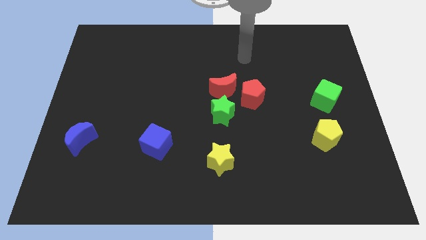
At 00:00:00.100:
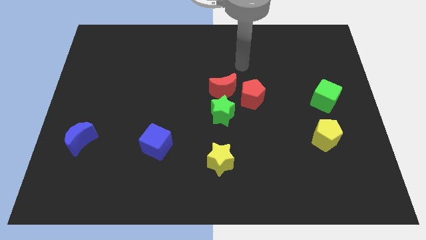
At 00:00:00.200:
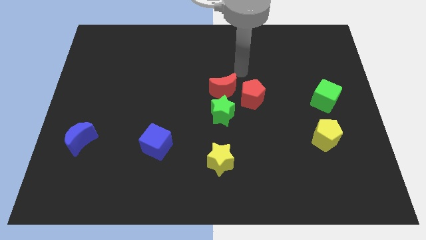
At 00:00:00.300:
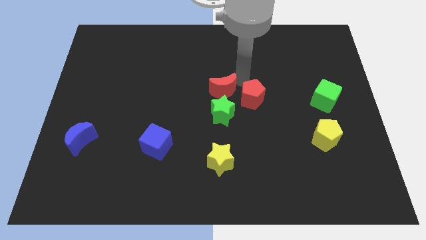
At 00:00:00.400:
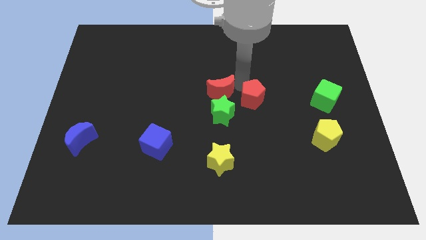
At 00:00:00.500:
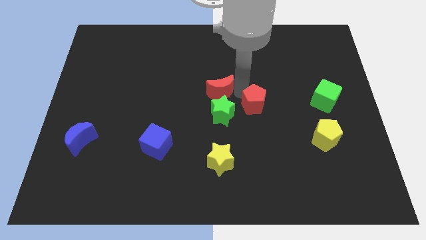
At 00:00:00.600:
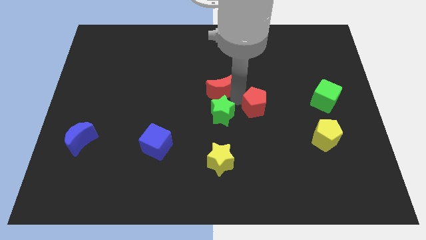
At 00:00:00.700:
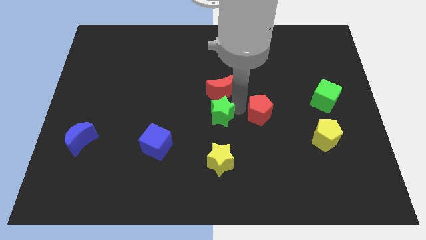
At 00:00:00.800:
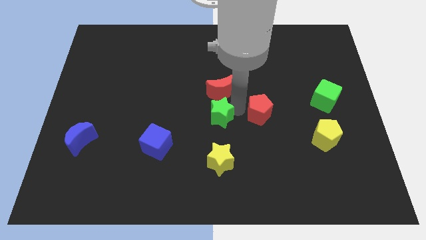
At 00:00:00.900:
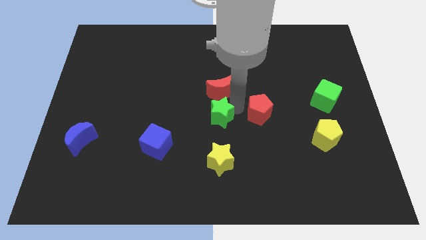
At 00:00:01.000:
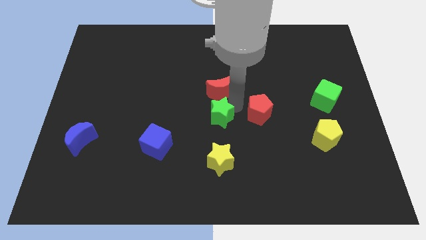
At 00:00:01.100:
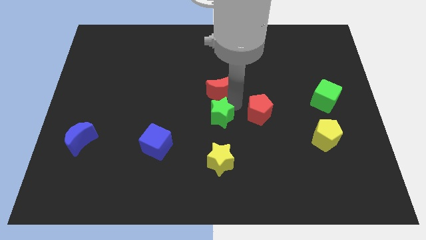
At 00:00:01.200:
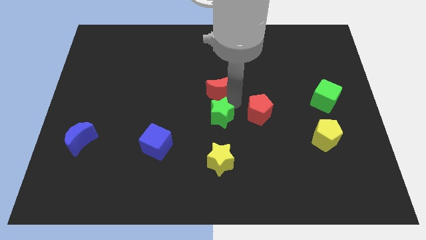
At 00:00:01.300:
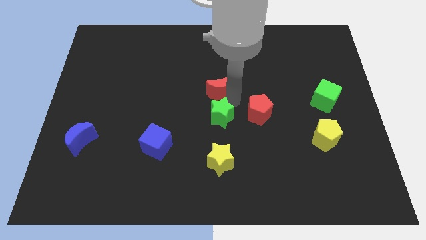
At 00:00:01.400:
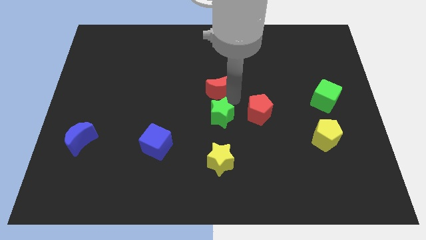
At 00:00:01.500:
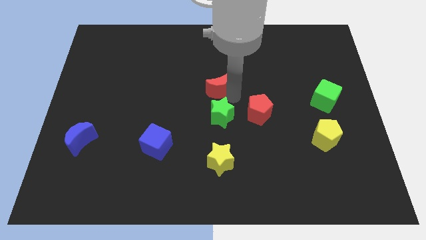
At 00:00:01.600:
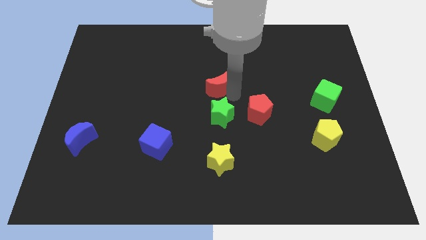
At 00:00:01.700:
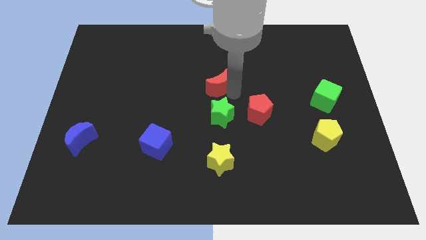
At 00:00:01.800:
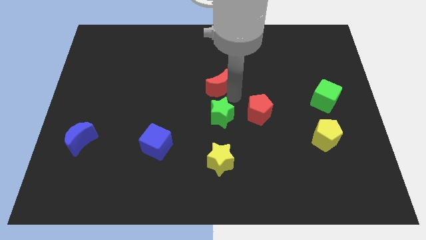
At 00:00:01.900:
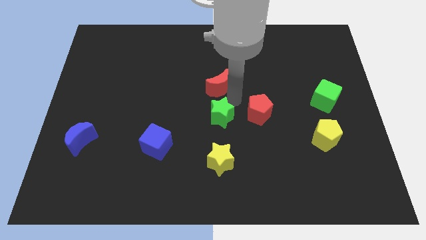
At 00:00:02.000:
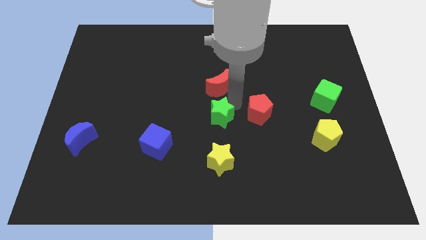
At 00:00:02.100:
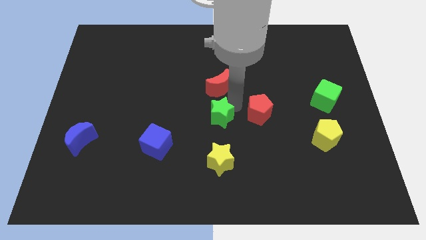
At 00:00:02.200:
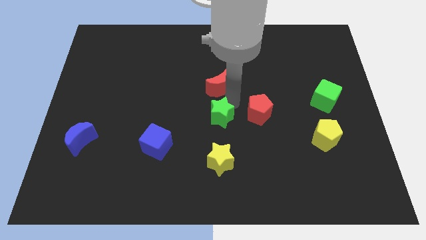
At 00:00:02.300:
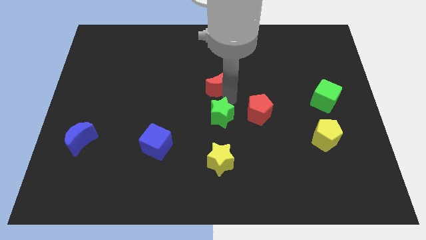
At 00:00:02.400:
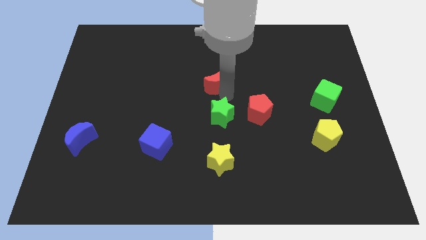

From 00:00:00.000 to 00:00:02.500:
pull the red moon apart from the red pentagon and green star

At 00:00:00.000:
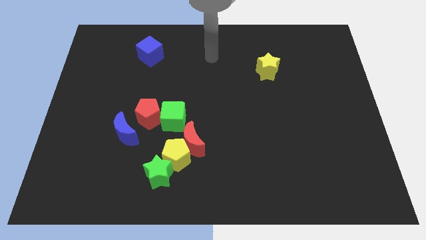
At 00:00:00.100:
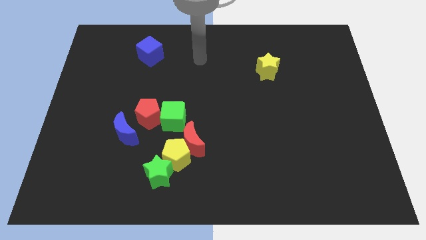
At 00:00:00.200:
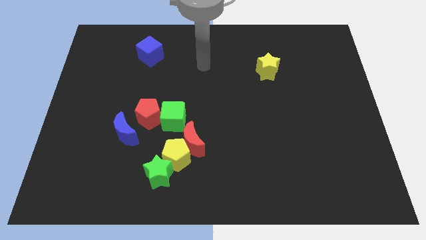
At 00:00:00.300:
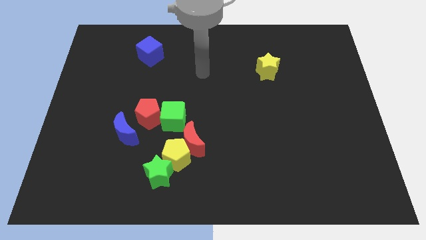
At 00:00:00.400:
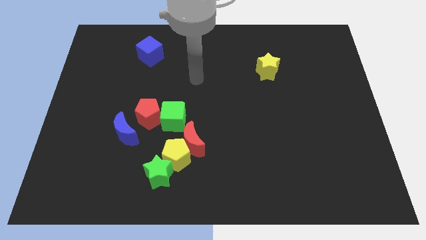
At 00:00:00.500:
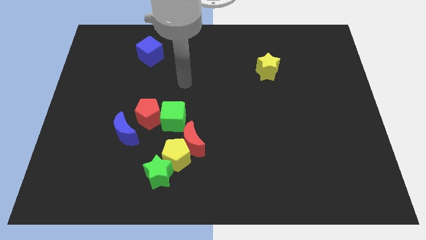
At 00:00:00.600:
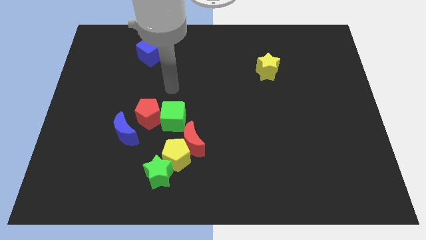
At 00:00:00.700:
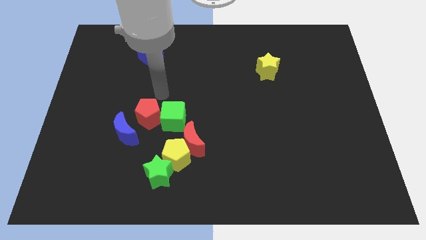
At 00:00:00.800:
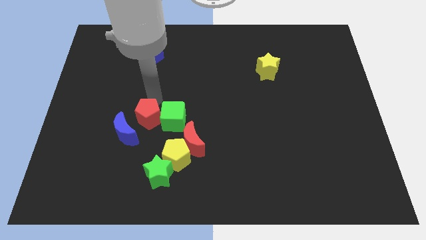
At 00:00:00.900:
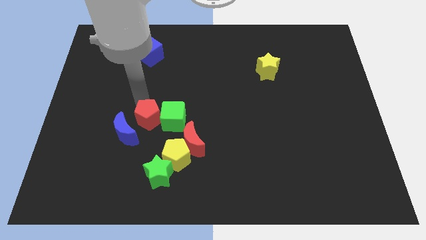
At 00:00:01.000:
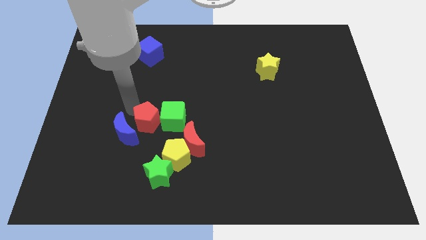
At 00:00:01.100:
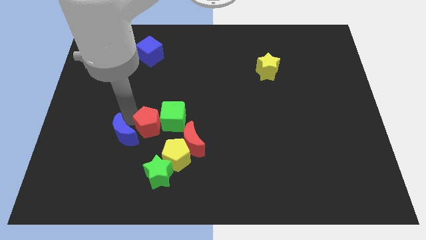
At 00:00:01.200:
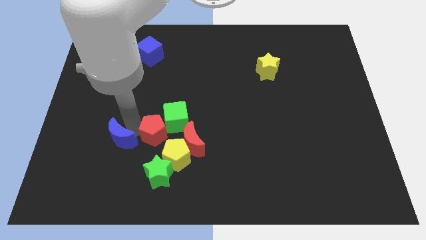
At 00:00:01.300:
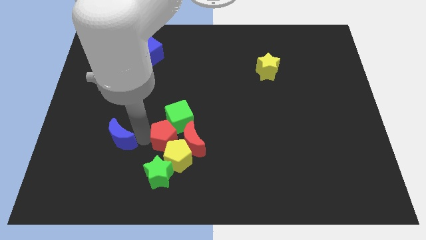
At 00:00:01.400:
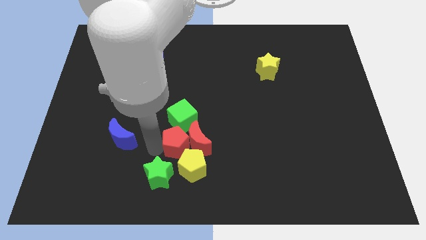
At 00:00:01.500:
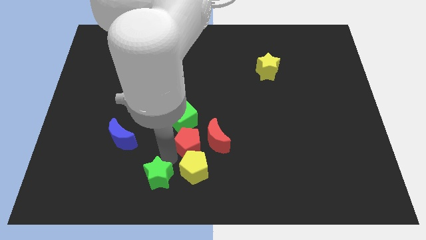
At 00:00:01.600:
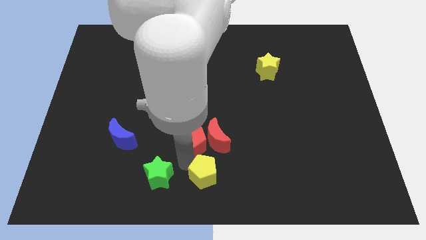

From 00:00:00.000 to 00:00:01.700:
pull the red pentagon apart from the green cube and blue moon

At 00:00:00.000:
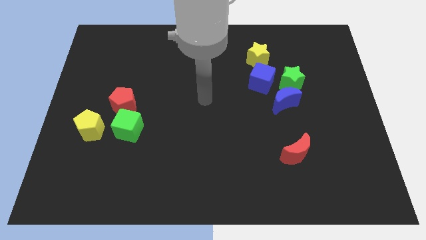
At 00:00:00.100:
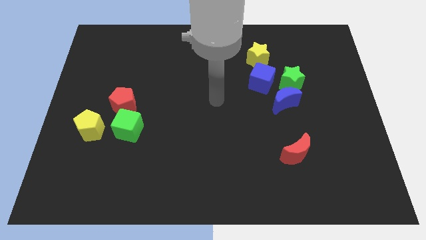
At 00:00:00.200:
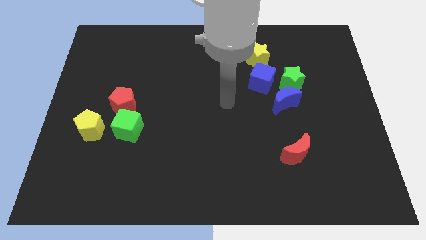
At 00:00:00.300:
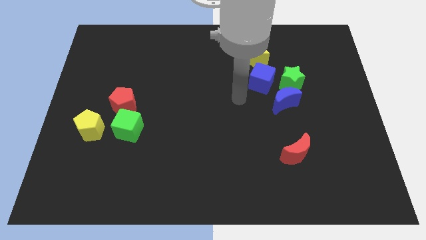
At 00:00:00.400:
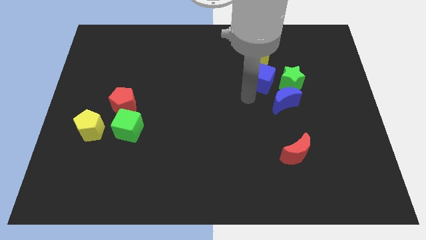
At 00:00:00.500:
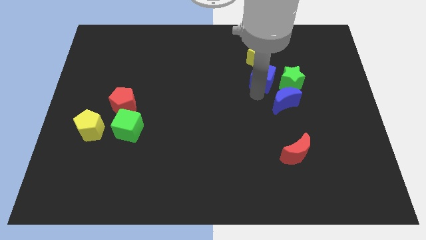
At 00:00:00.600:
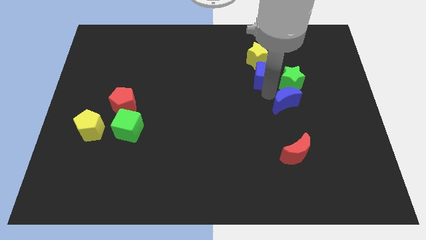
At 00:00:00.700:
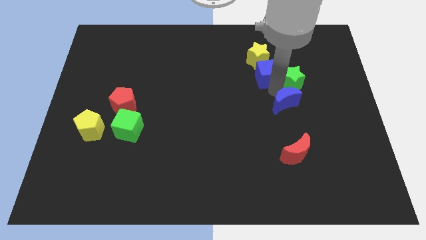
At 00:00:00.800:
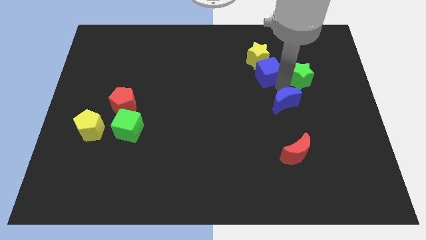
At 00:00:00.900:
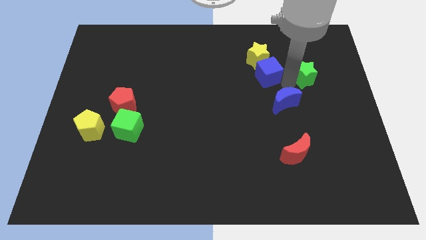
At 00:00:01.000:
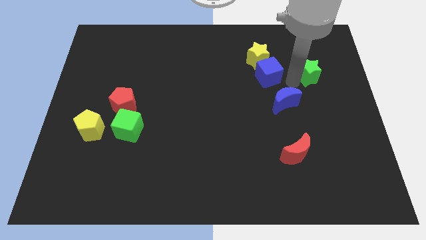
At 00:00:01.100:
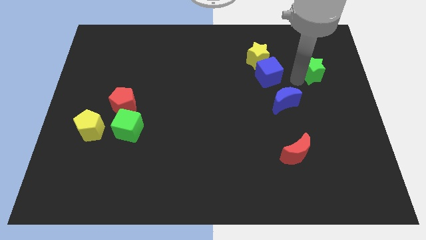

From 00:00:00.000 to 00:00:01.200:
move the green star away from the blue moon and blue cube

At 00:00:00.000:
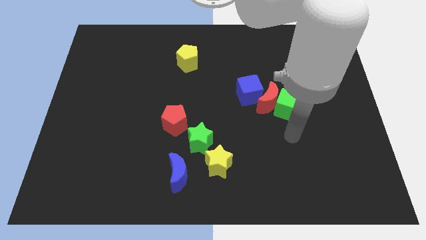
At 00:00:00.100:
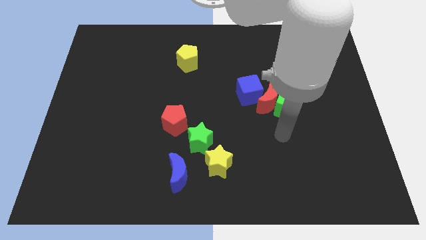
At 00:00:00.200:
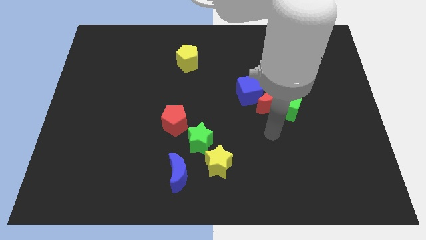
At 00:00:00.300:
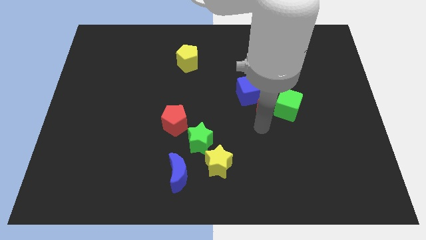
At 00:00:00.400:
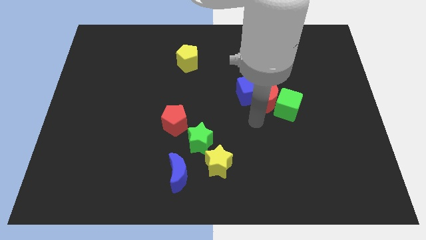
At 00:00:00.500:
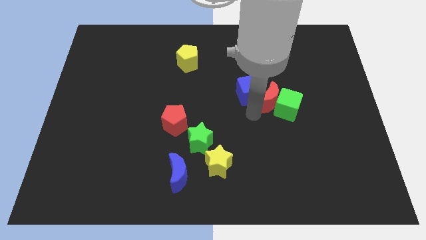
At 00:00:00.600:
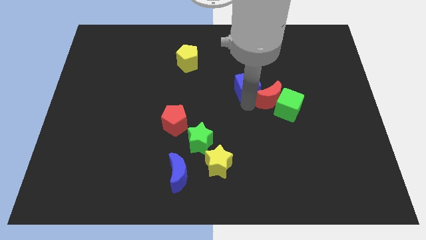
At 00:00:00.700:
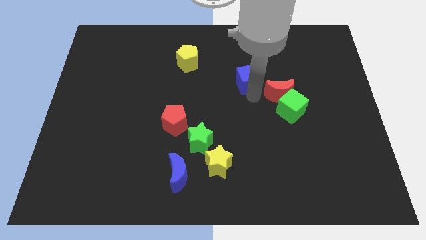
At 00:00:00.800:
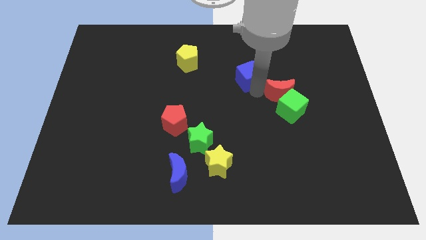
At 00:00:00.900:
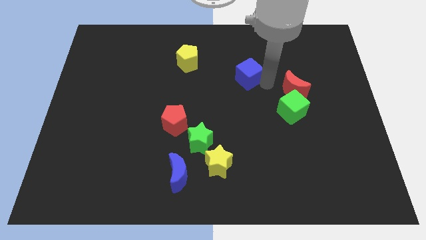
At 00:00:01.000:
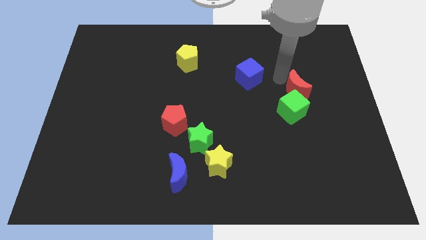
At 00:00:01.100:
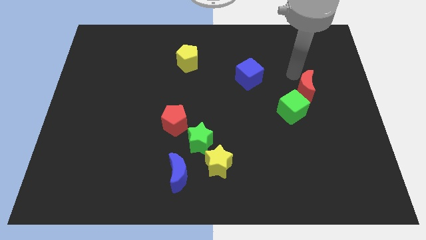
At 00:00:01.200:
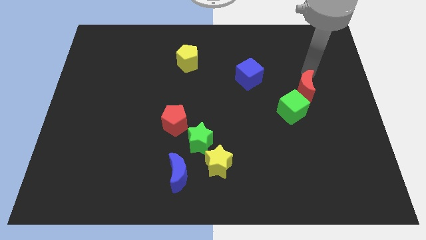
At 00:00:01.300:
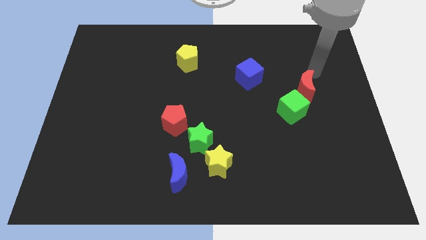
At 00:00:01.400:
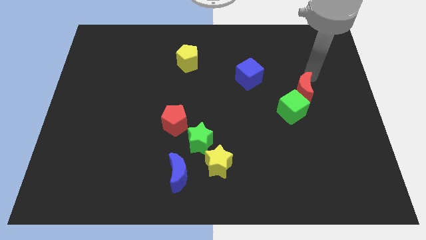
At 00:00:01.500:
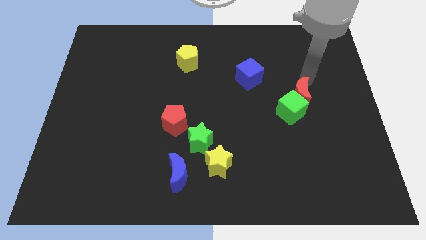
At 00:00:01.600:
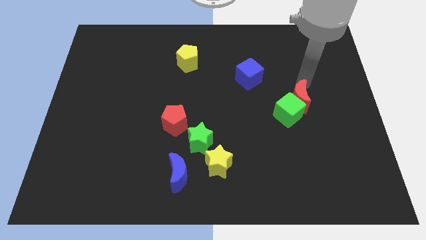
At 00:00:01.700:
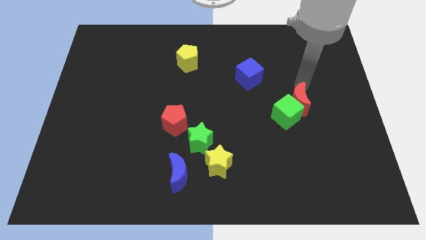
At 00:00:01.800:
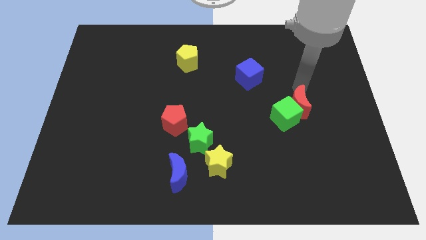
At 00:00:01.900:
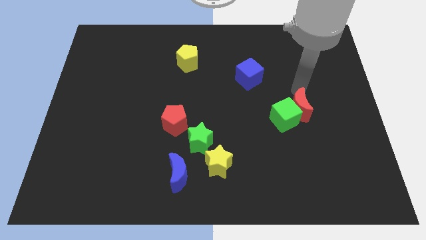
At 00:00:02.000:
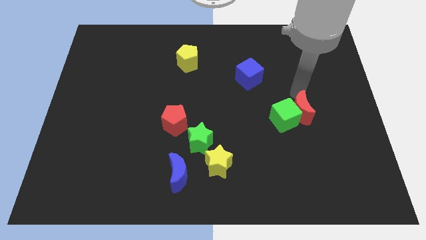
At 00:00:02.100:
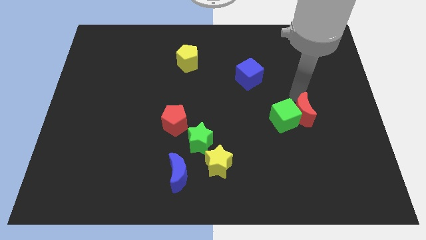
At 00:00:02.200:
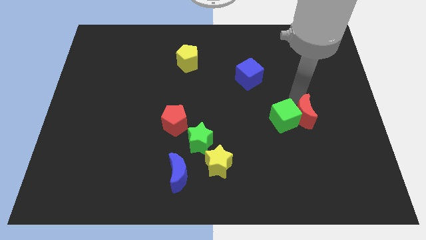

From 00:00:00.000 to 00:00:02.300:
separate the red moon from the green cube and blue cube

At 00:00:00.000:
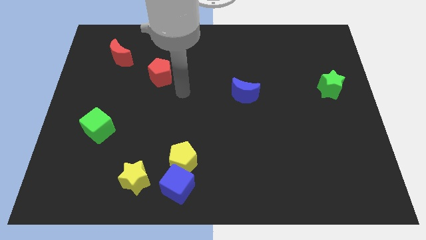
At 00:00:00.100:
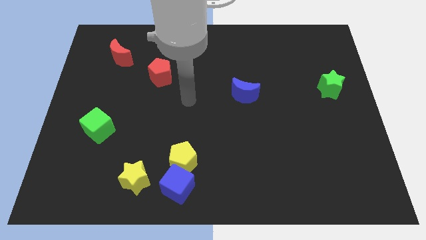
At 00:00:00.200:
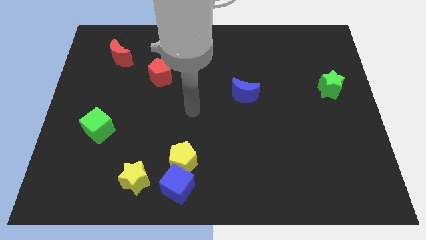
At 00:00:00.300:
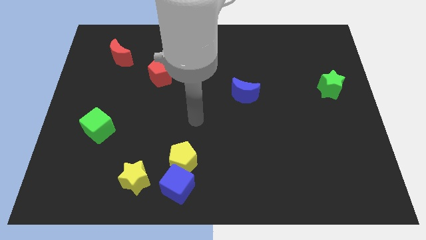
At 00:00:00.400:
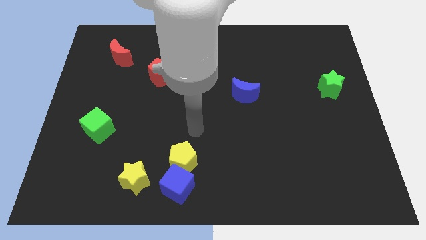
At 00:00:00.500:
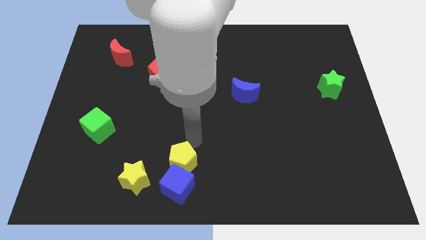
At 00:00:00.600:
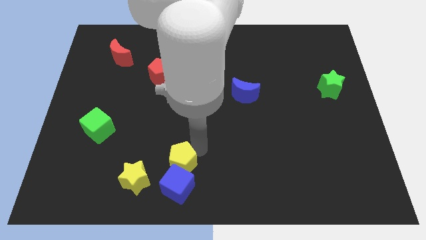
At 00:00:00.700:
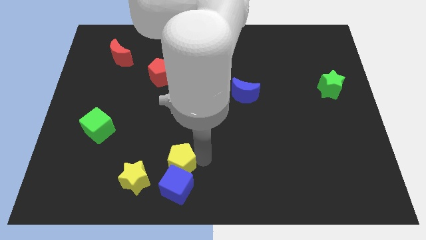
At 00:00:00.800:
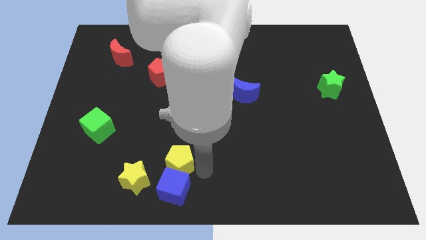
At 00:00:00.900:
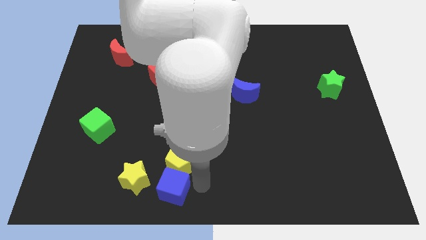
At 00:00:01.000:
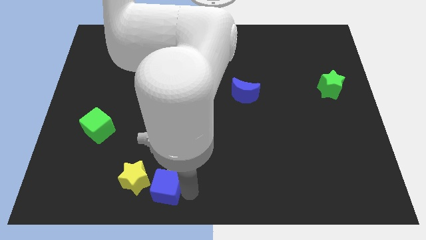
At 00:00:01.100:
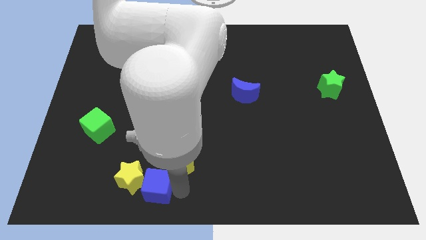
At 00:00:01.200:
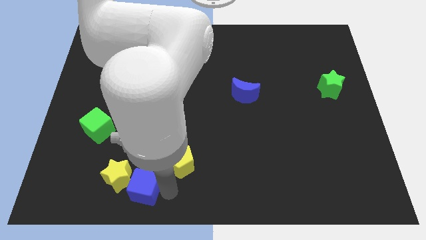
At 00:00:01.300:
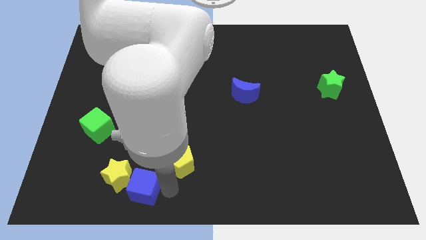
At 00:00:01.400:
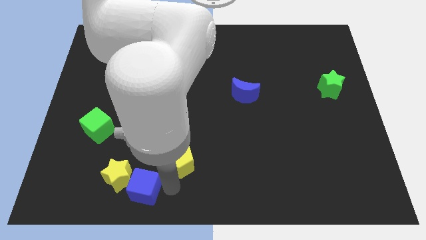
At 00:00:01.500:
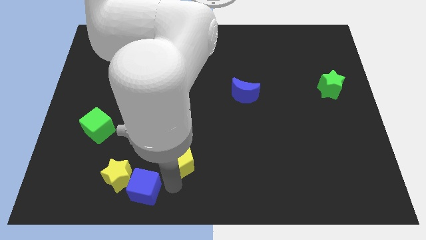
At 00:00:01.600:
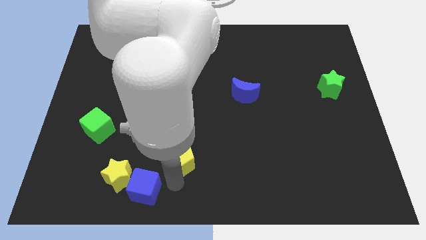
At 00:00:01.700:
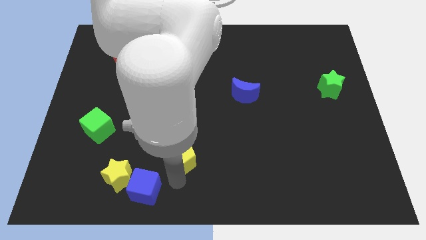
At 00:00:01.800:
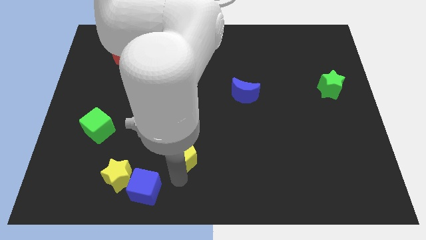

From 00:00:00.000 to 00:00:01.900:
separate the yellow pentagon from the blue cube
